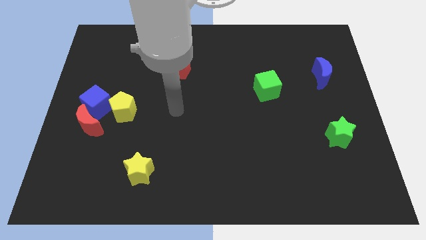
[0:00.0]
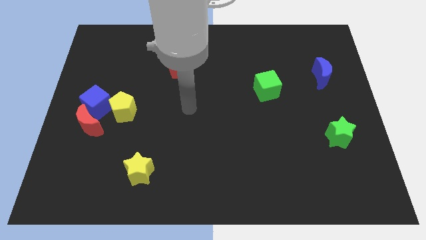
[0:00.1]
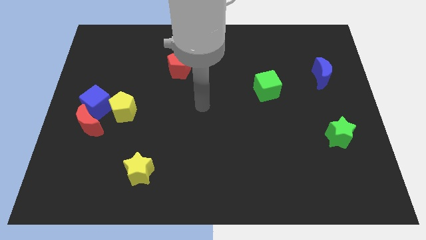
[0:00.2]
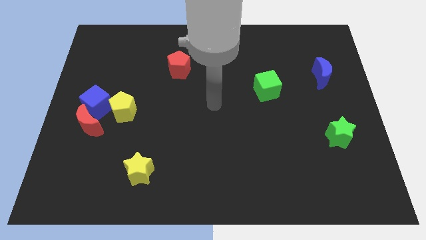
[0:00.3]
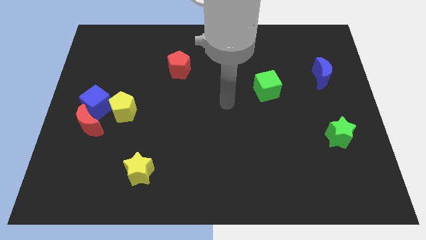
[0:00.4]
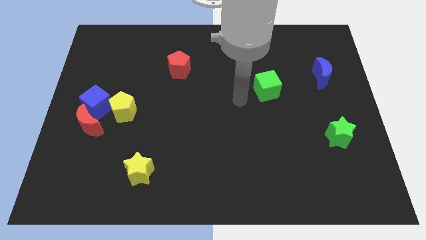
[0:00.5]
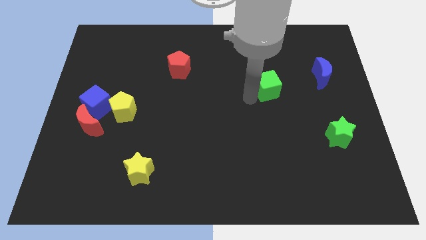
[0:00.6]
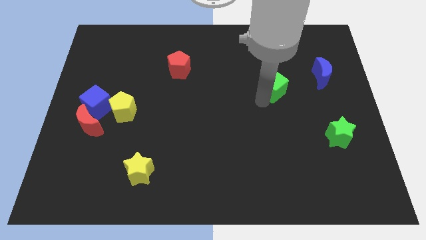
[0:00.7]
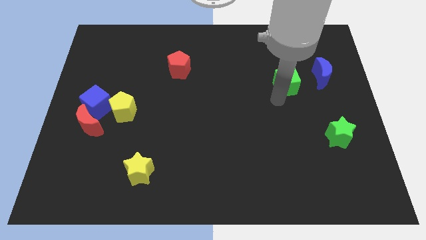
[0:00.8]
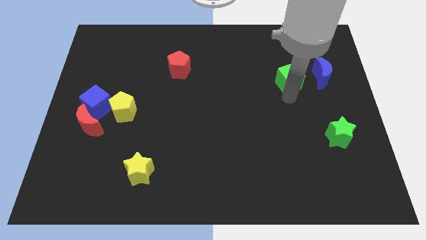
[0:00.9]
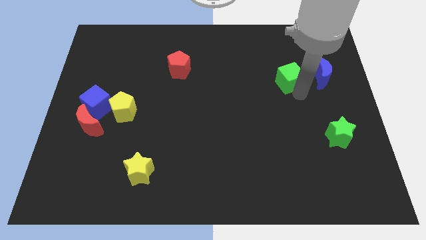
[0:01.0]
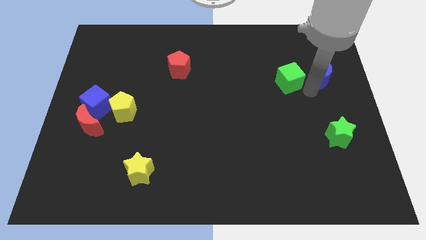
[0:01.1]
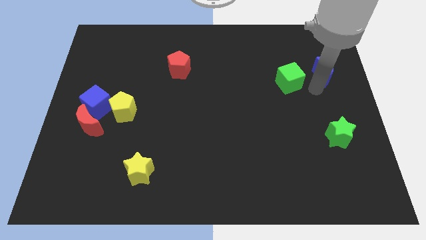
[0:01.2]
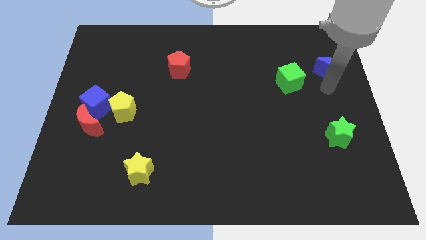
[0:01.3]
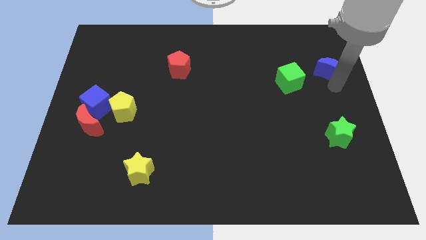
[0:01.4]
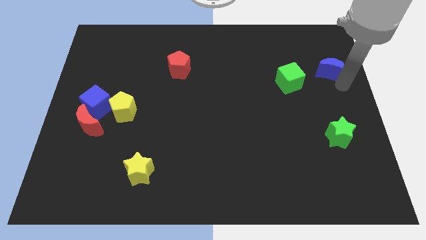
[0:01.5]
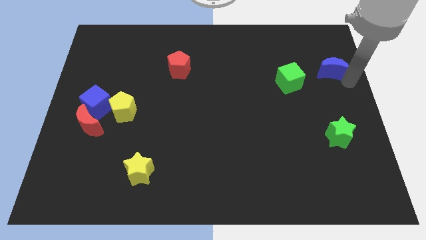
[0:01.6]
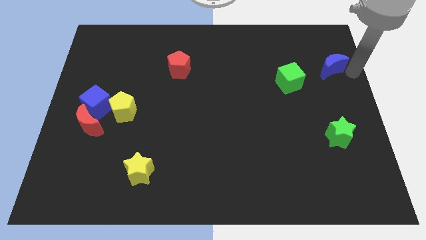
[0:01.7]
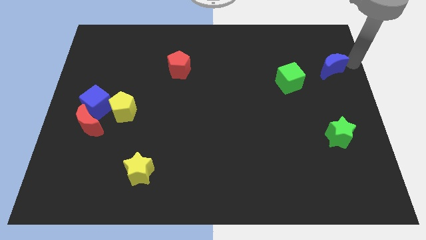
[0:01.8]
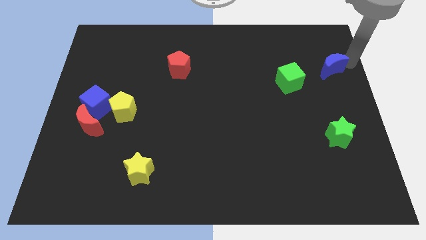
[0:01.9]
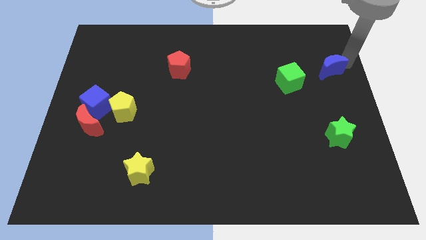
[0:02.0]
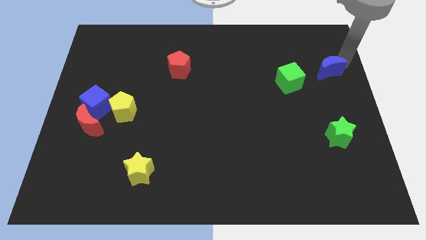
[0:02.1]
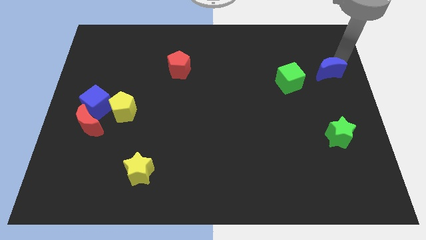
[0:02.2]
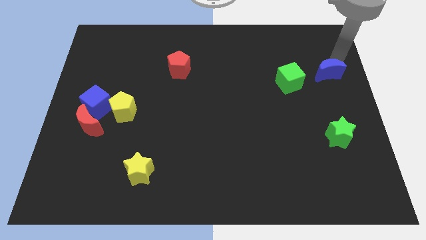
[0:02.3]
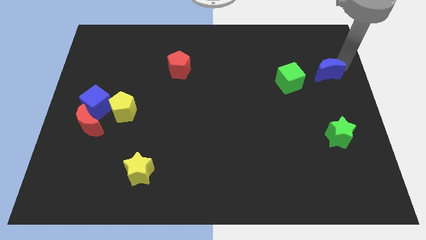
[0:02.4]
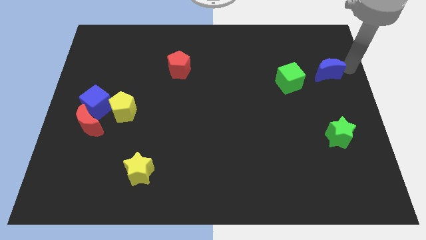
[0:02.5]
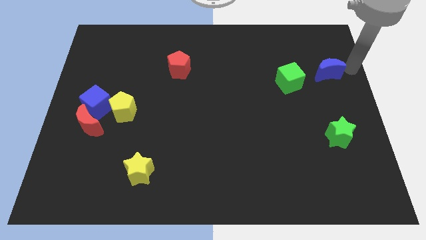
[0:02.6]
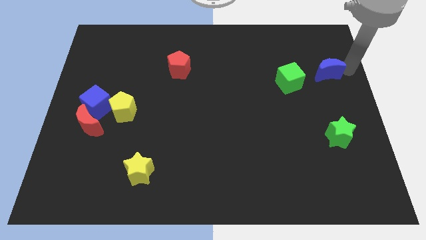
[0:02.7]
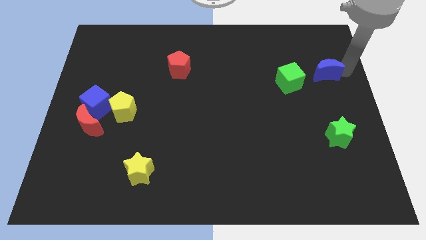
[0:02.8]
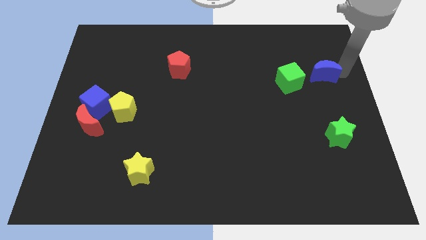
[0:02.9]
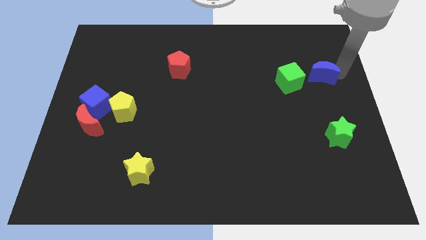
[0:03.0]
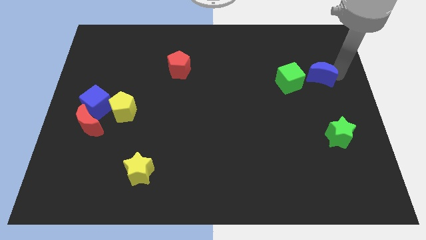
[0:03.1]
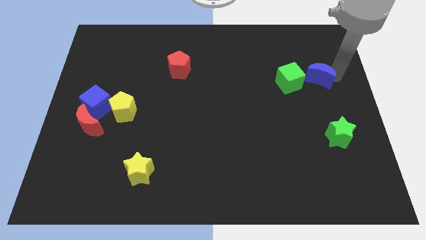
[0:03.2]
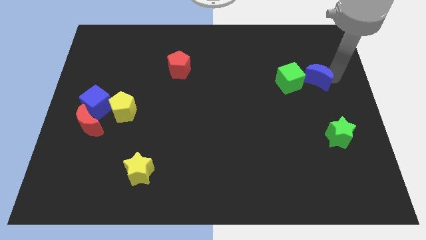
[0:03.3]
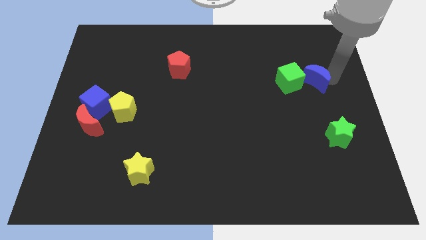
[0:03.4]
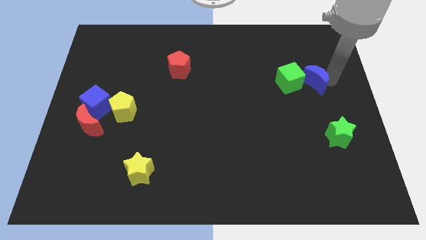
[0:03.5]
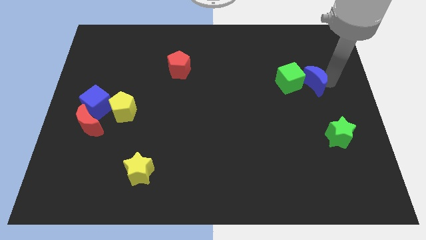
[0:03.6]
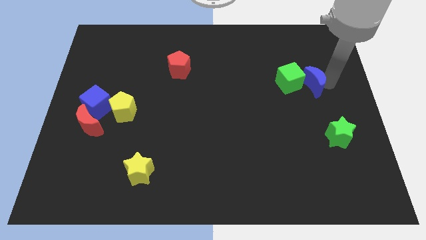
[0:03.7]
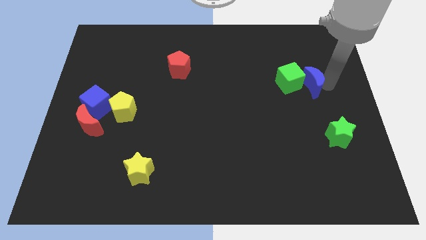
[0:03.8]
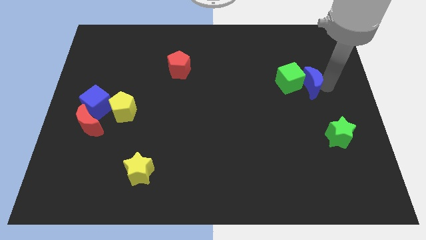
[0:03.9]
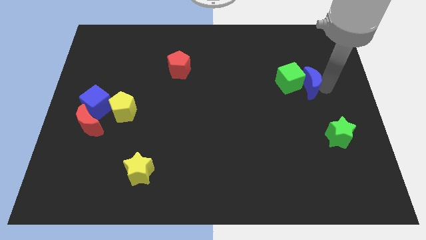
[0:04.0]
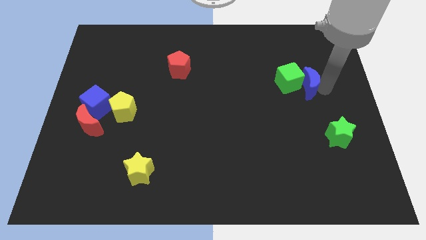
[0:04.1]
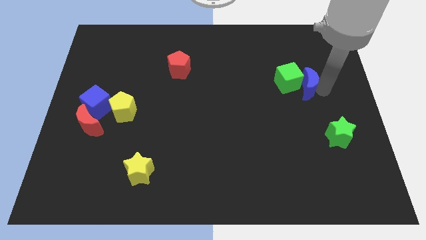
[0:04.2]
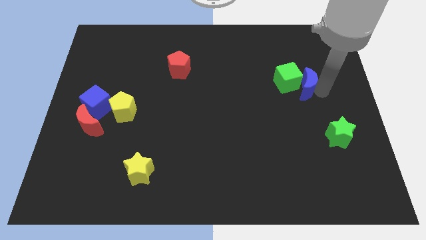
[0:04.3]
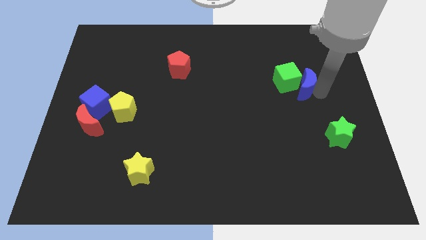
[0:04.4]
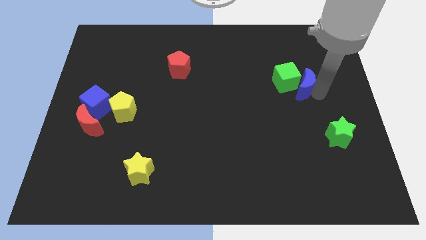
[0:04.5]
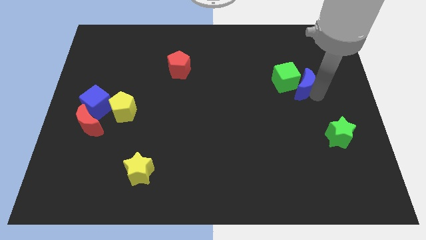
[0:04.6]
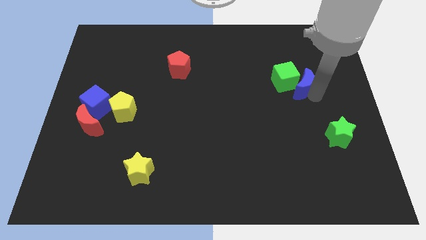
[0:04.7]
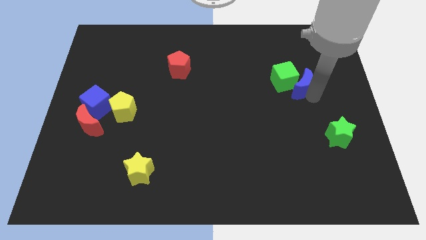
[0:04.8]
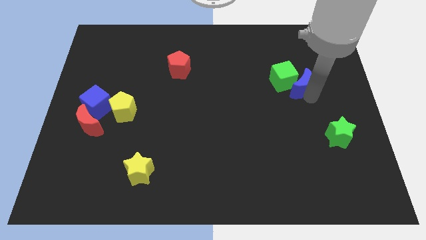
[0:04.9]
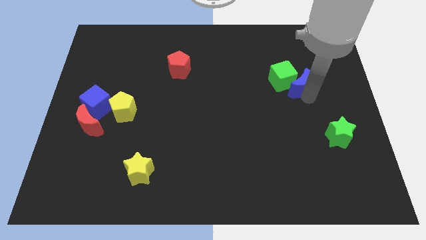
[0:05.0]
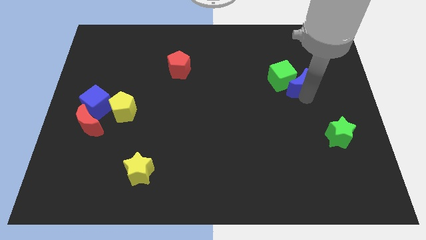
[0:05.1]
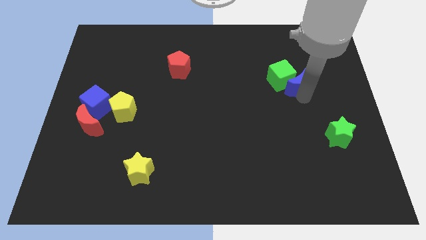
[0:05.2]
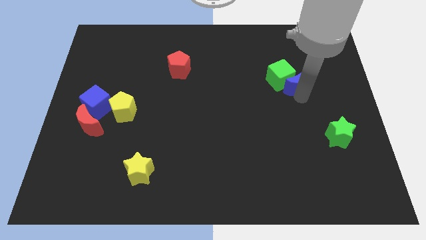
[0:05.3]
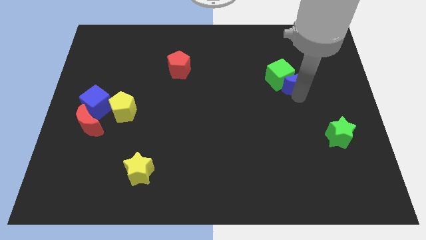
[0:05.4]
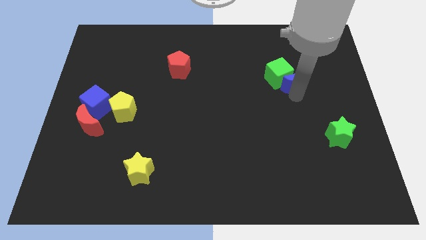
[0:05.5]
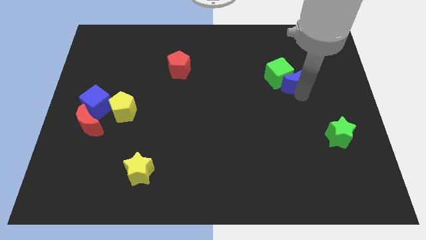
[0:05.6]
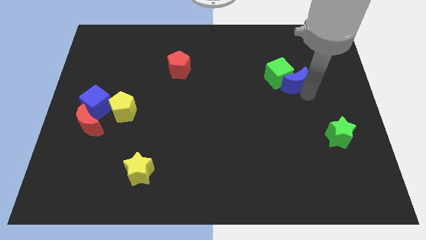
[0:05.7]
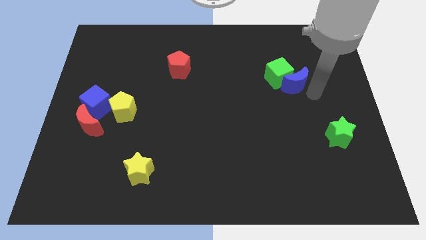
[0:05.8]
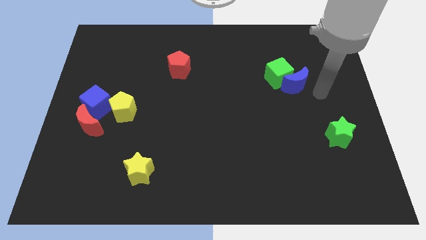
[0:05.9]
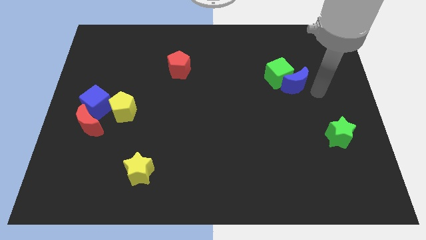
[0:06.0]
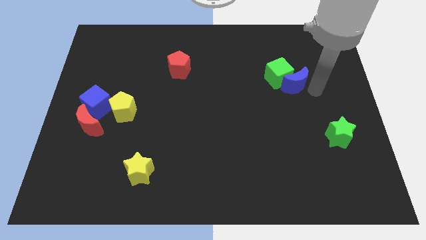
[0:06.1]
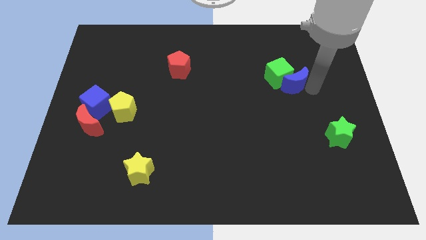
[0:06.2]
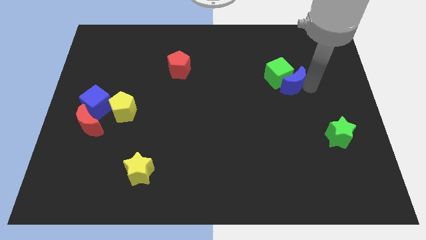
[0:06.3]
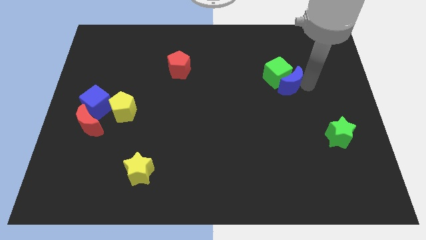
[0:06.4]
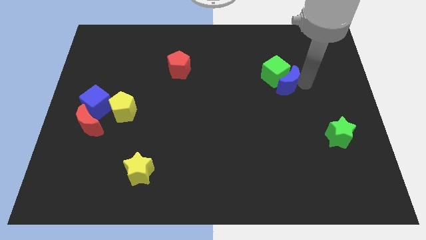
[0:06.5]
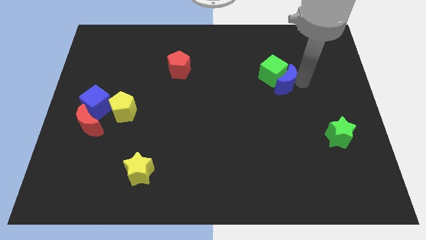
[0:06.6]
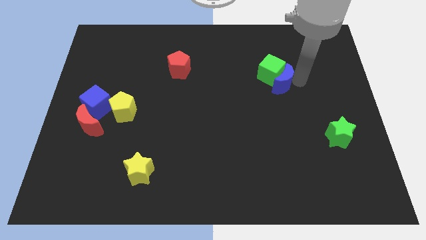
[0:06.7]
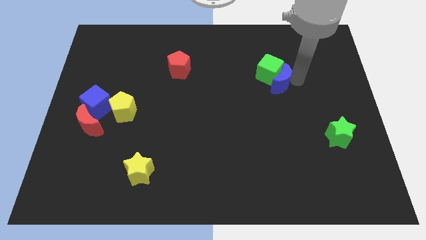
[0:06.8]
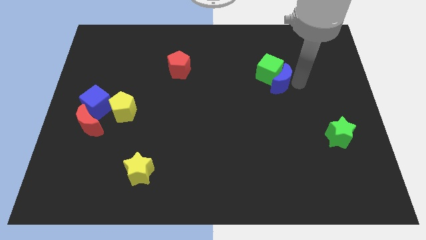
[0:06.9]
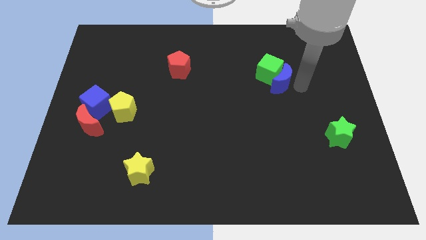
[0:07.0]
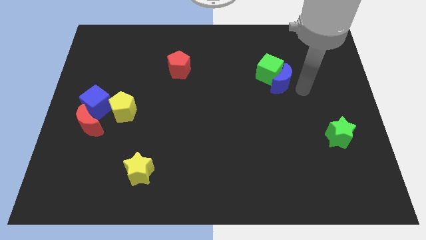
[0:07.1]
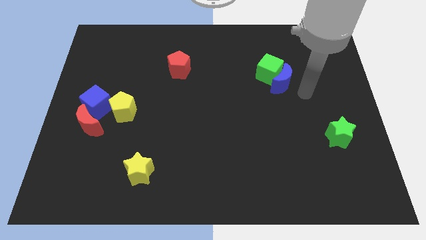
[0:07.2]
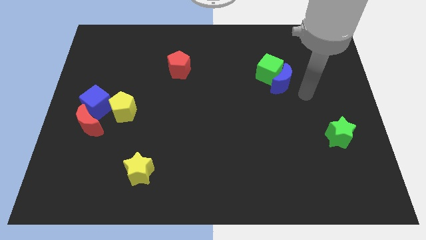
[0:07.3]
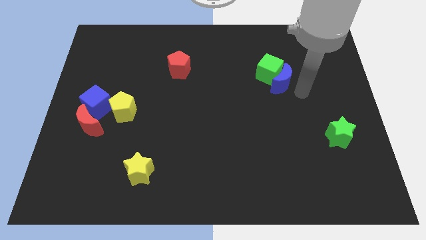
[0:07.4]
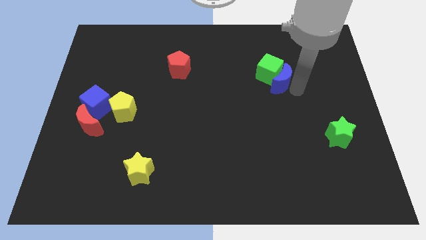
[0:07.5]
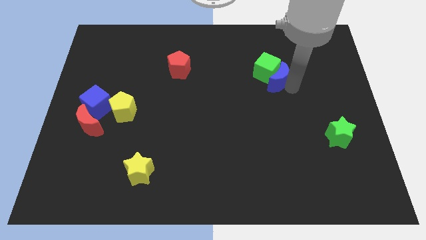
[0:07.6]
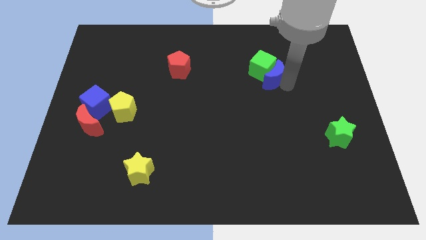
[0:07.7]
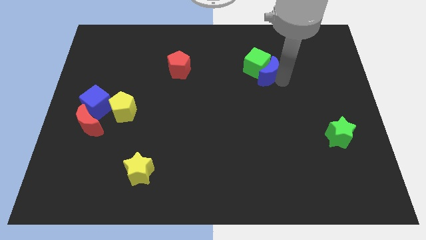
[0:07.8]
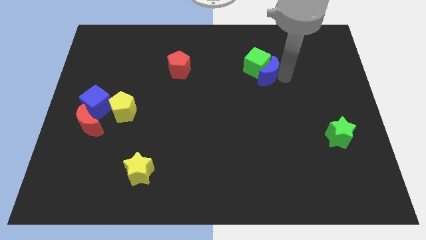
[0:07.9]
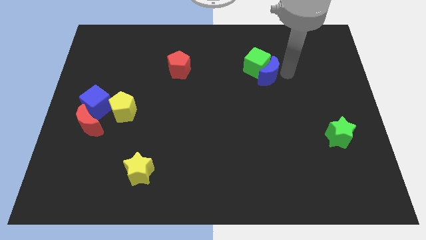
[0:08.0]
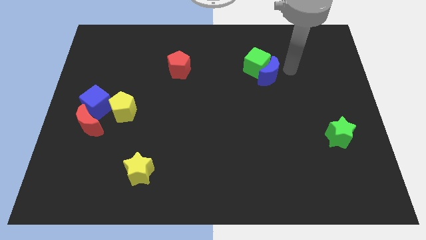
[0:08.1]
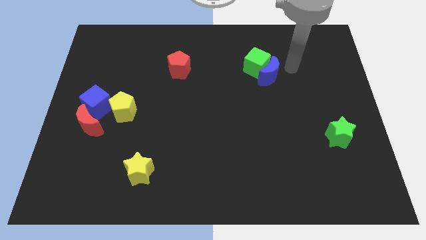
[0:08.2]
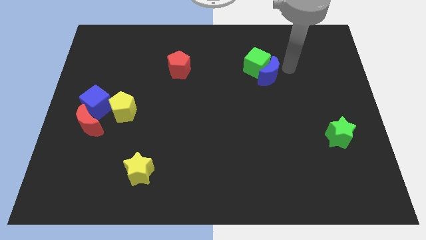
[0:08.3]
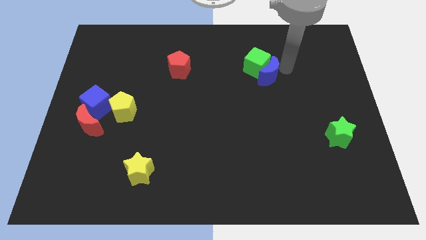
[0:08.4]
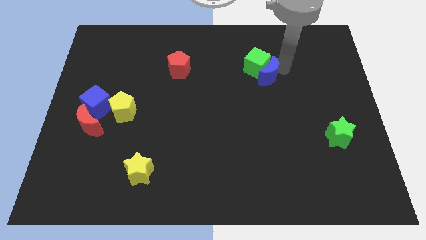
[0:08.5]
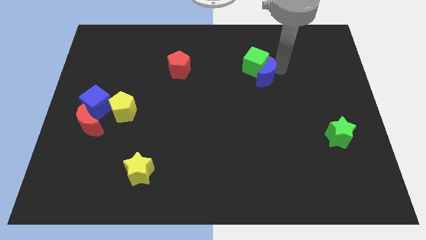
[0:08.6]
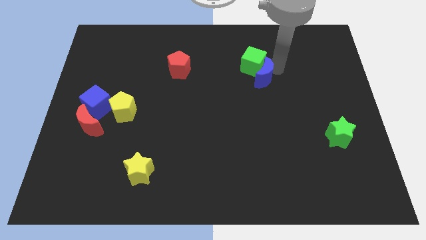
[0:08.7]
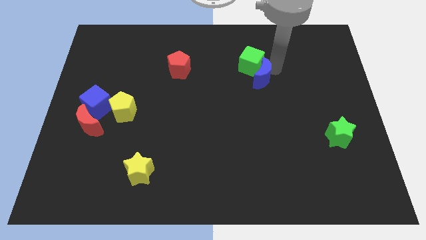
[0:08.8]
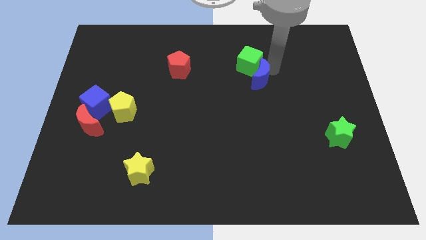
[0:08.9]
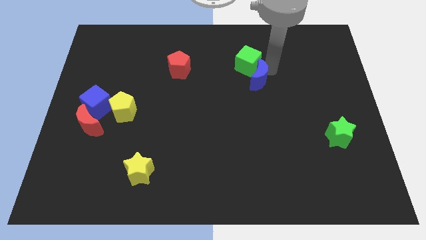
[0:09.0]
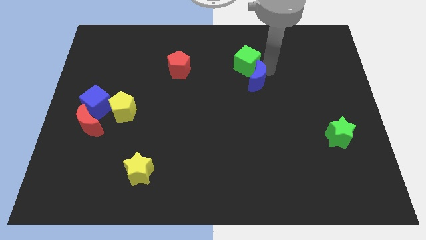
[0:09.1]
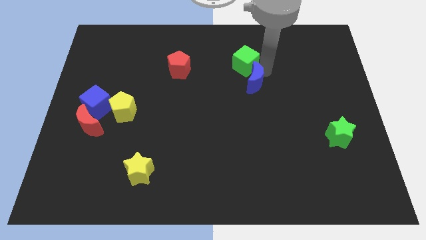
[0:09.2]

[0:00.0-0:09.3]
slide the blue moon to the middle of the board
